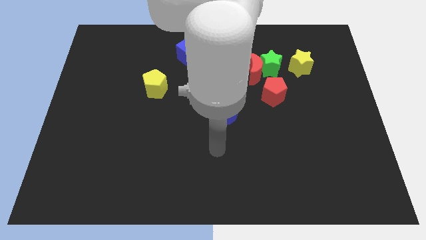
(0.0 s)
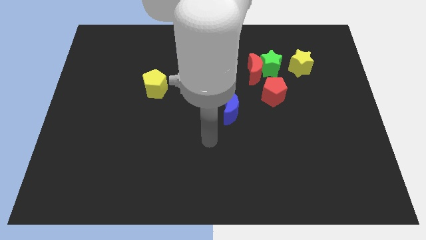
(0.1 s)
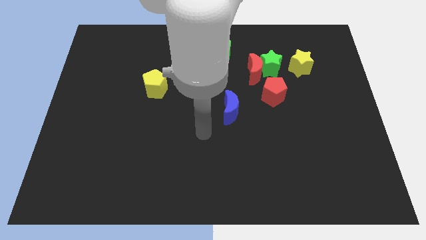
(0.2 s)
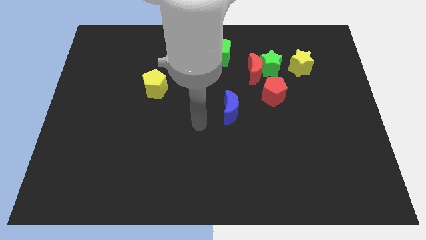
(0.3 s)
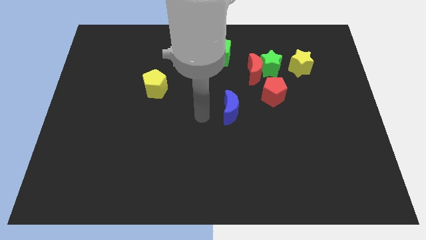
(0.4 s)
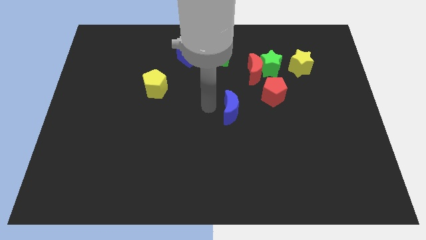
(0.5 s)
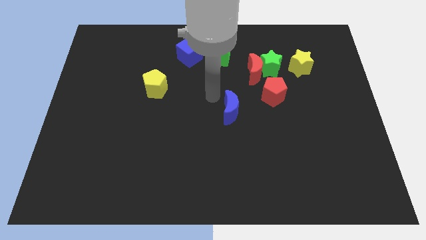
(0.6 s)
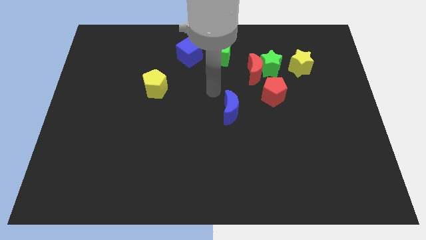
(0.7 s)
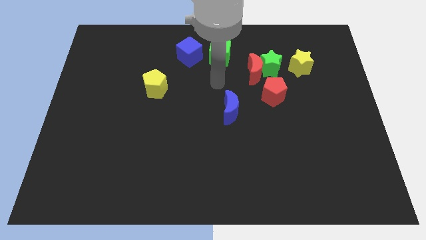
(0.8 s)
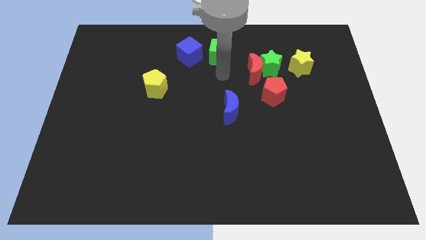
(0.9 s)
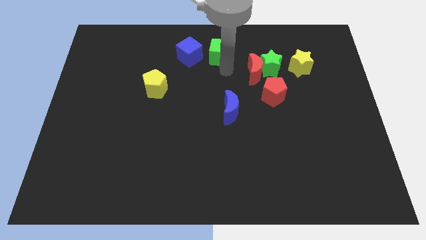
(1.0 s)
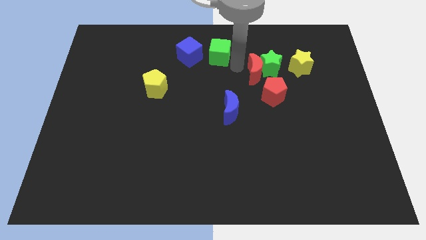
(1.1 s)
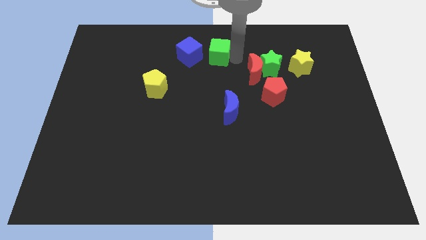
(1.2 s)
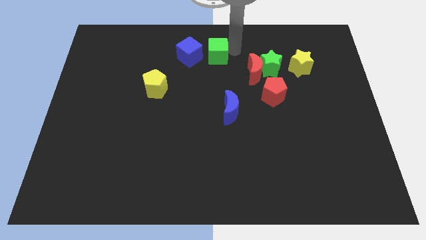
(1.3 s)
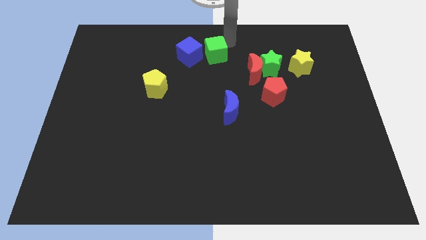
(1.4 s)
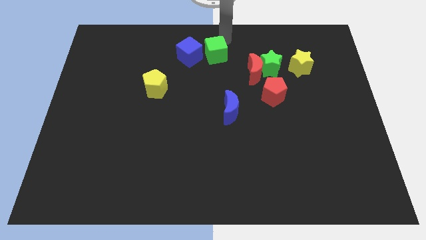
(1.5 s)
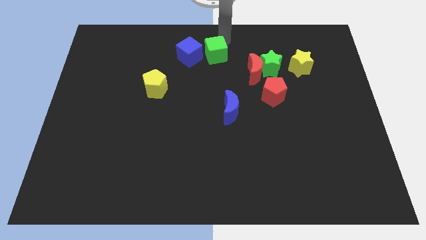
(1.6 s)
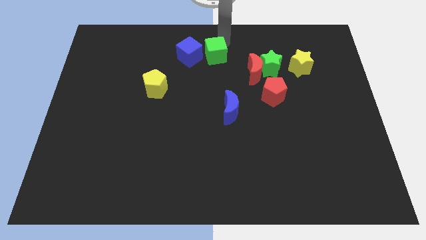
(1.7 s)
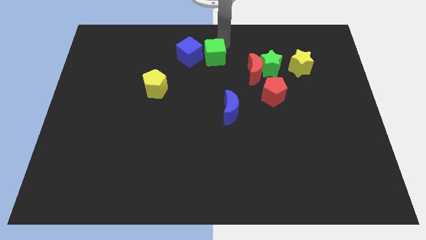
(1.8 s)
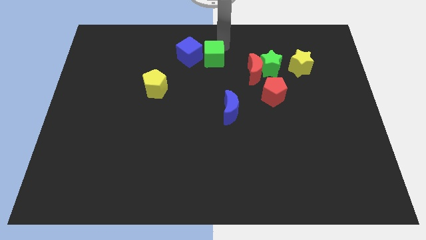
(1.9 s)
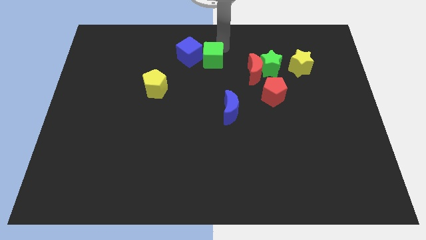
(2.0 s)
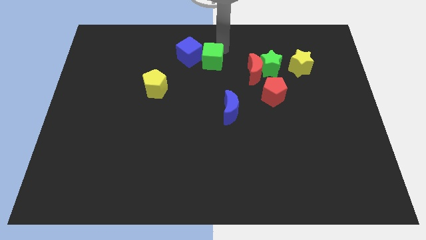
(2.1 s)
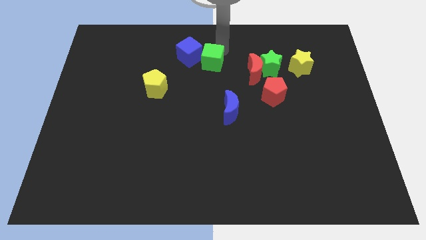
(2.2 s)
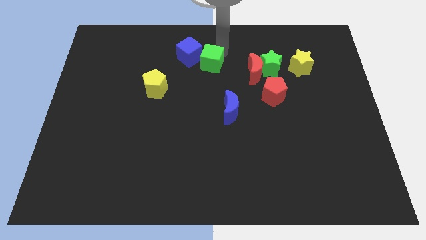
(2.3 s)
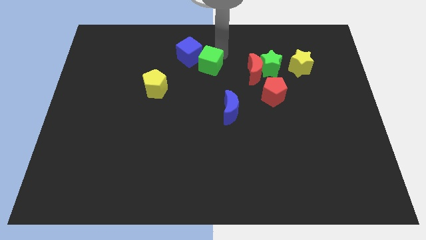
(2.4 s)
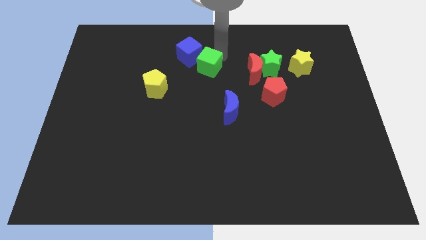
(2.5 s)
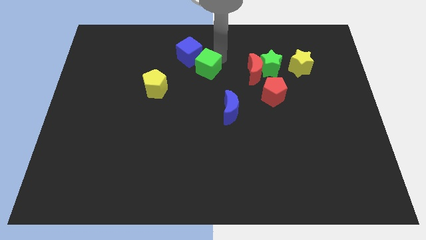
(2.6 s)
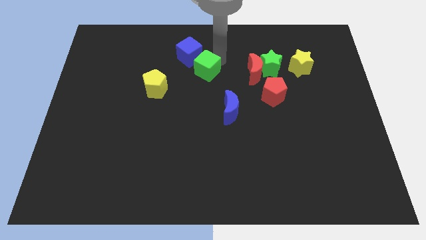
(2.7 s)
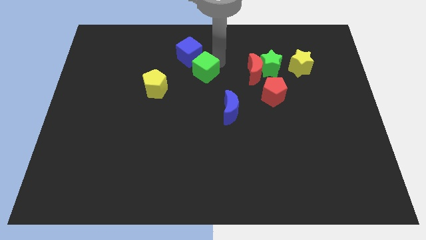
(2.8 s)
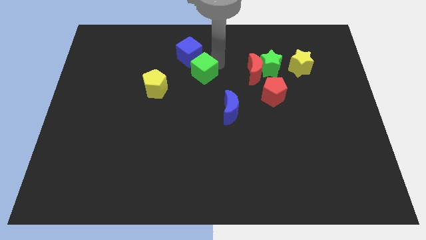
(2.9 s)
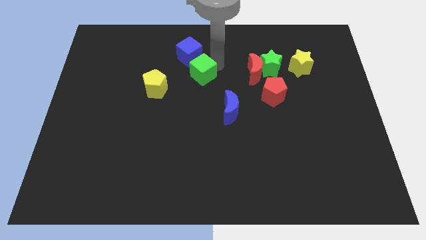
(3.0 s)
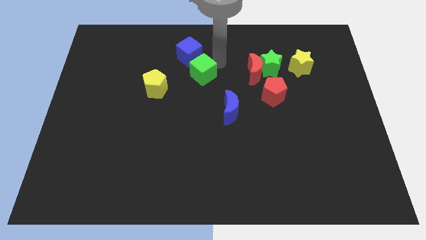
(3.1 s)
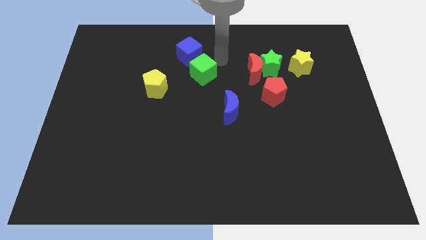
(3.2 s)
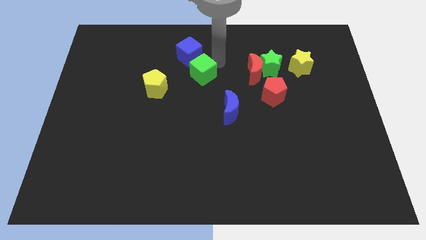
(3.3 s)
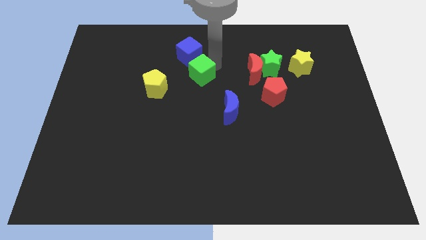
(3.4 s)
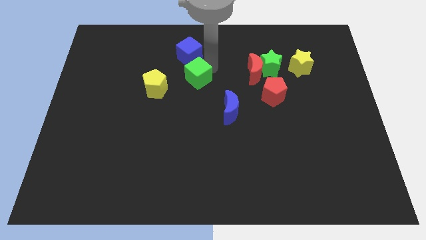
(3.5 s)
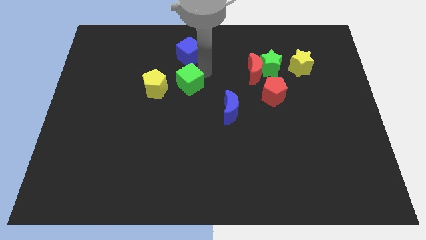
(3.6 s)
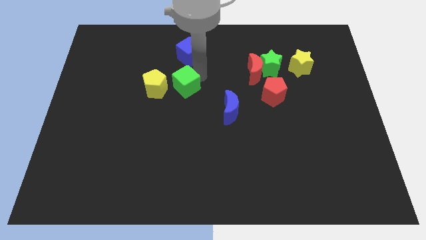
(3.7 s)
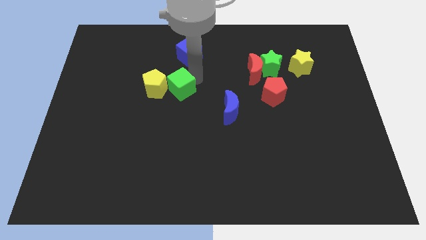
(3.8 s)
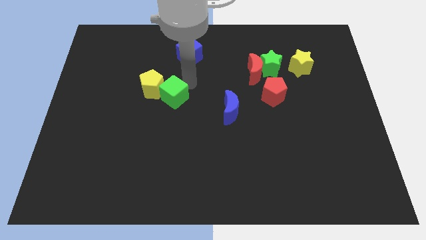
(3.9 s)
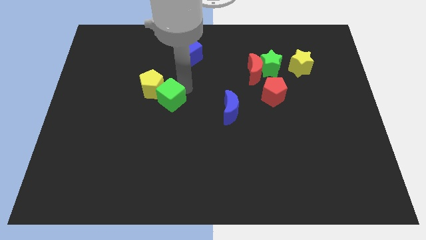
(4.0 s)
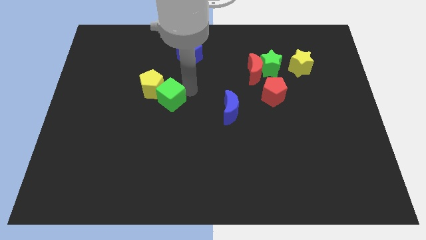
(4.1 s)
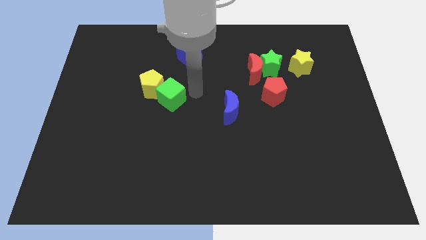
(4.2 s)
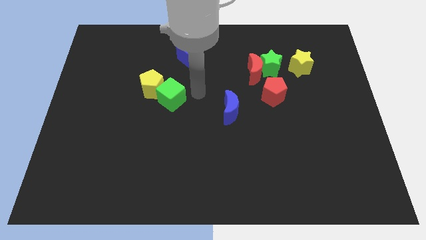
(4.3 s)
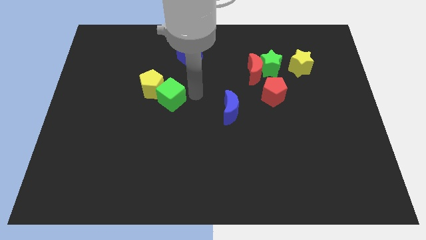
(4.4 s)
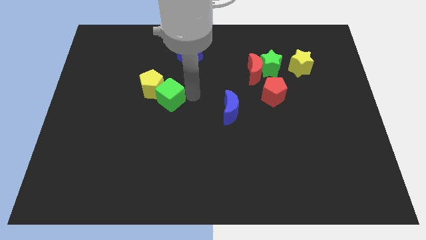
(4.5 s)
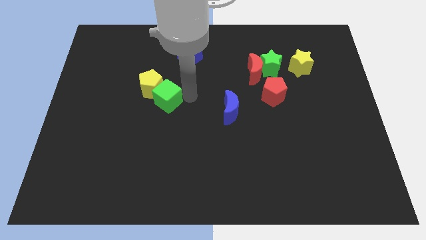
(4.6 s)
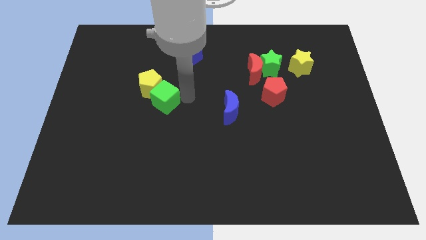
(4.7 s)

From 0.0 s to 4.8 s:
slide the green cube downwards and to the left diagonally

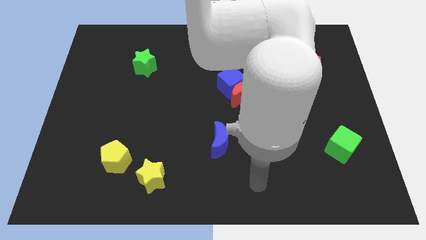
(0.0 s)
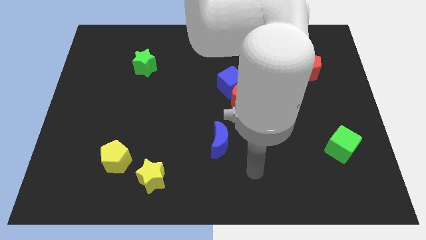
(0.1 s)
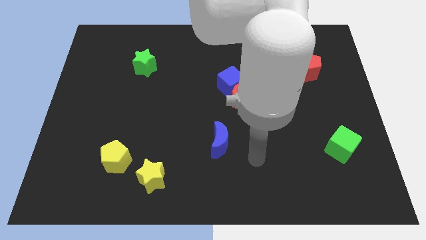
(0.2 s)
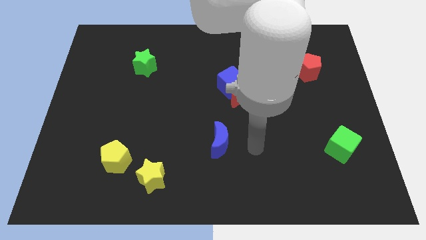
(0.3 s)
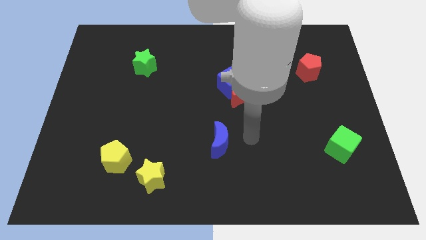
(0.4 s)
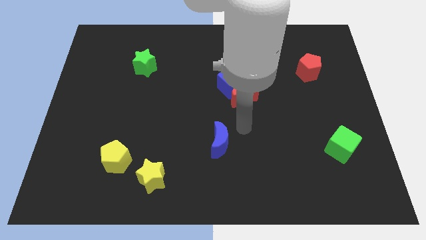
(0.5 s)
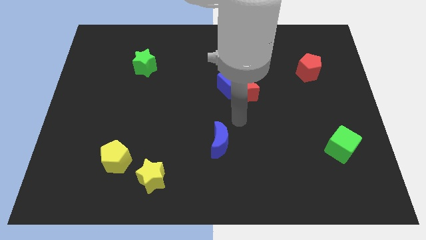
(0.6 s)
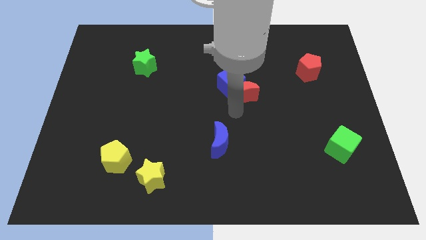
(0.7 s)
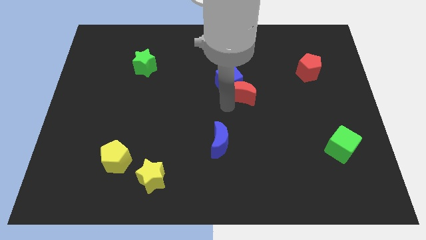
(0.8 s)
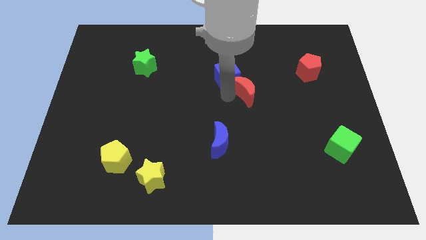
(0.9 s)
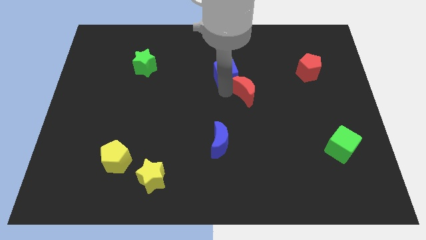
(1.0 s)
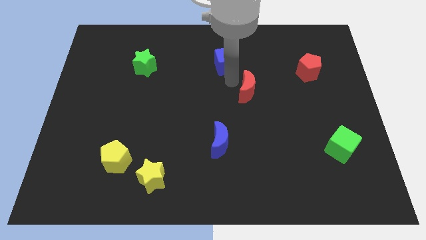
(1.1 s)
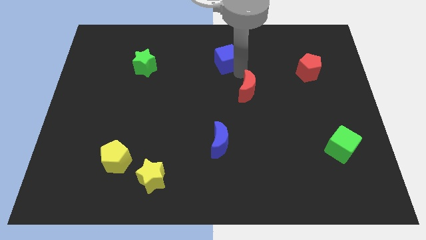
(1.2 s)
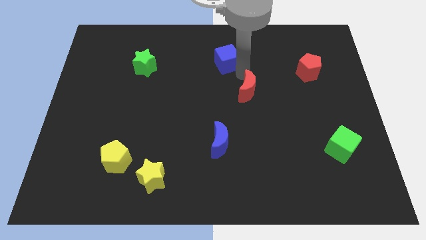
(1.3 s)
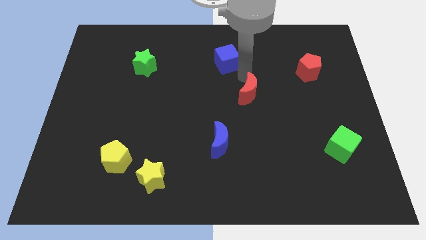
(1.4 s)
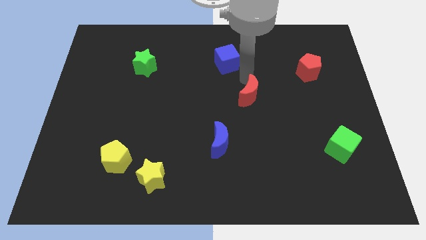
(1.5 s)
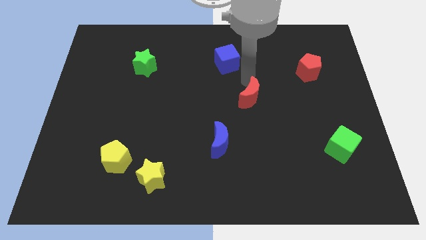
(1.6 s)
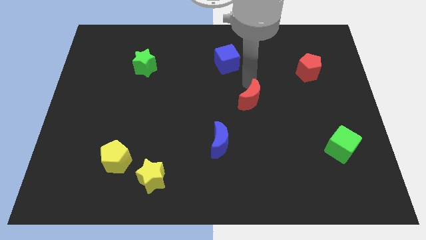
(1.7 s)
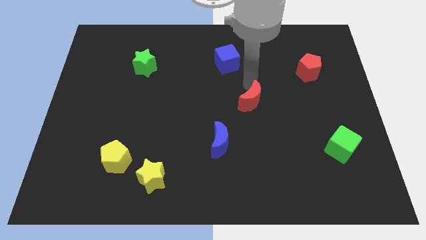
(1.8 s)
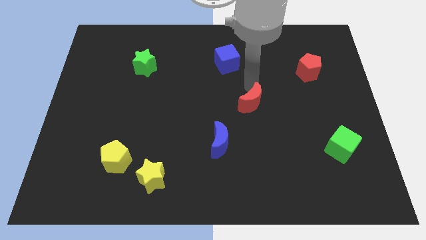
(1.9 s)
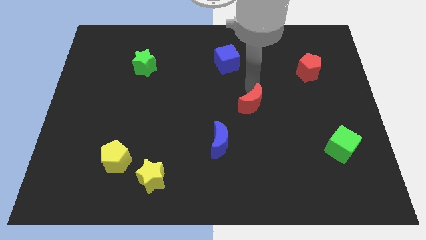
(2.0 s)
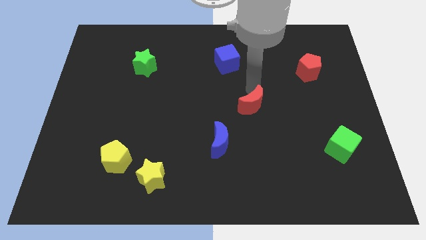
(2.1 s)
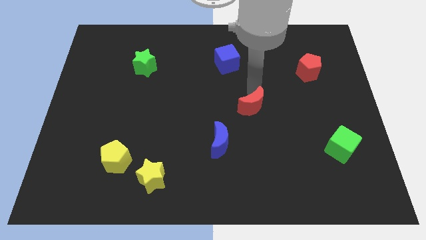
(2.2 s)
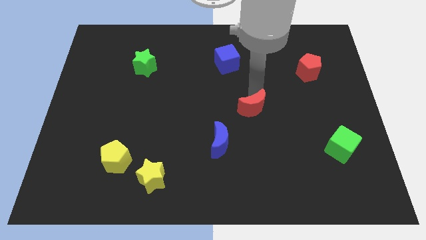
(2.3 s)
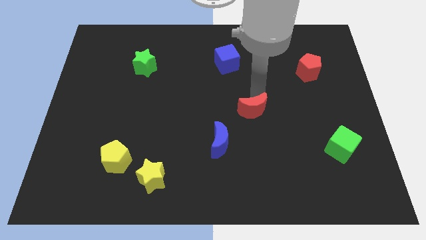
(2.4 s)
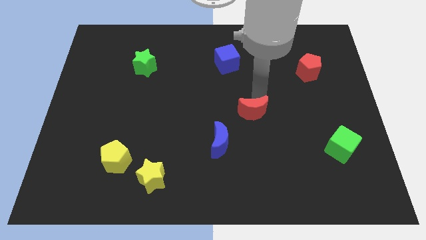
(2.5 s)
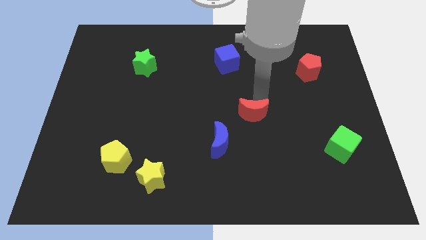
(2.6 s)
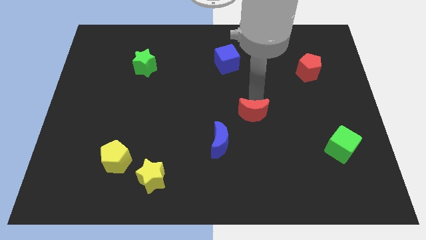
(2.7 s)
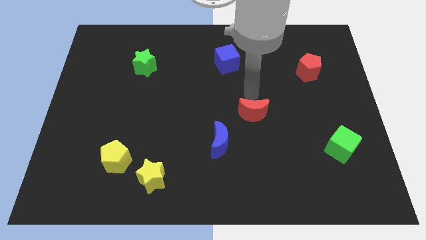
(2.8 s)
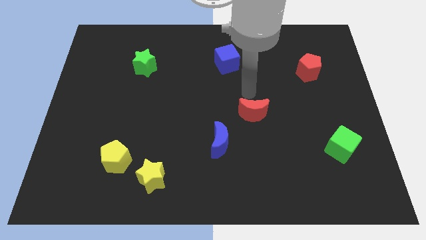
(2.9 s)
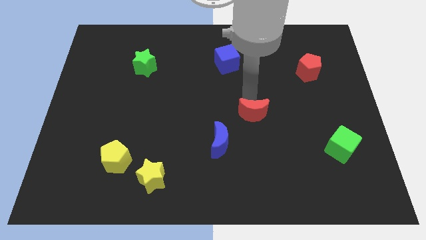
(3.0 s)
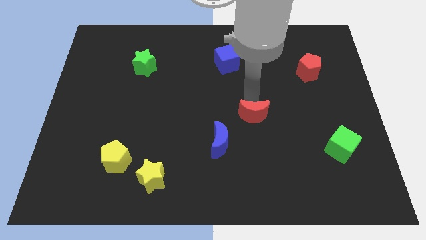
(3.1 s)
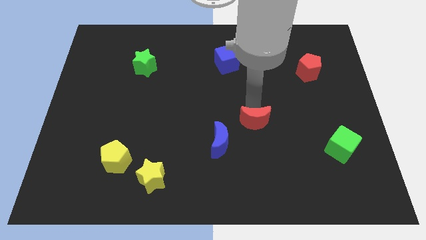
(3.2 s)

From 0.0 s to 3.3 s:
slide the red moon down slightly

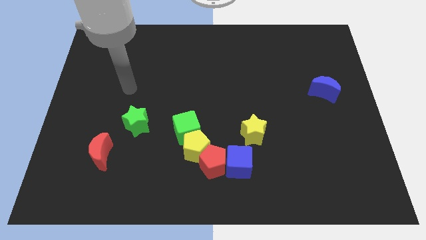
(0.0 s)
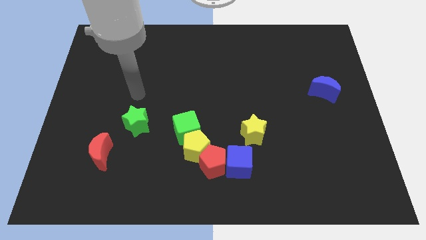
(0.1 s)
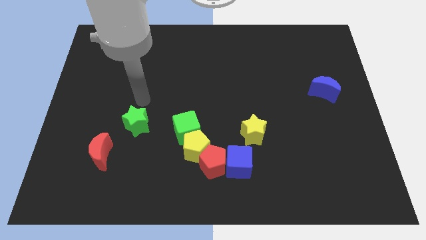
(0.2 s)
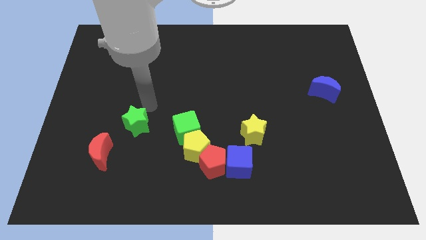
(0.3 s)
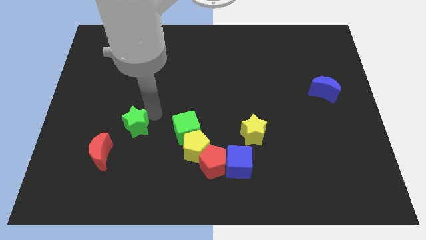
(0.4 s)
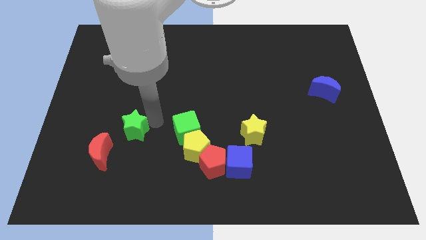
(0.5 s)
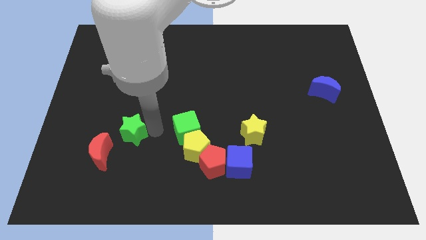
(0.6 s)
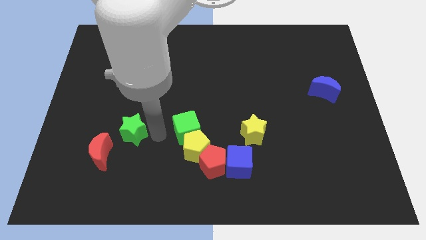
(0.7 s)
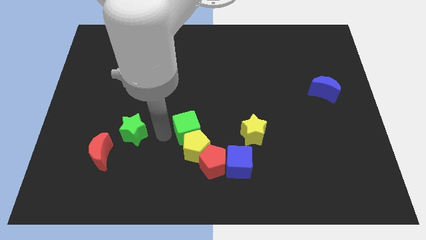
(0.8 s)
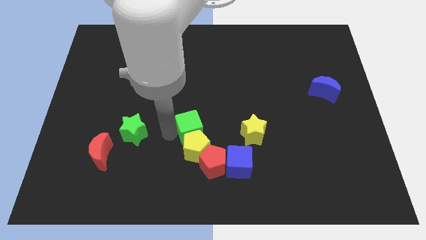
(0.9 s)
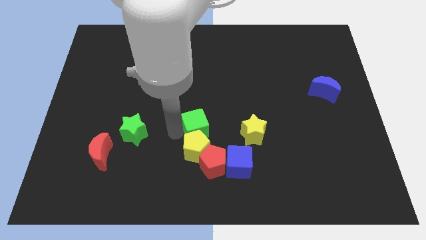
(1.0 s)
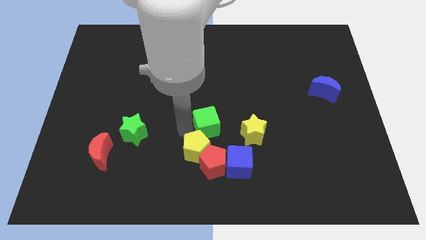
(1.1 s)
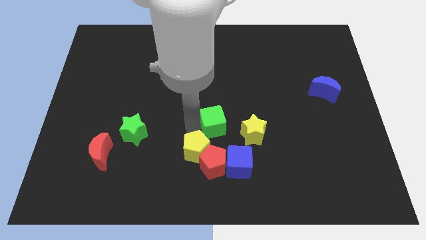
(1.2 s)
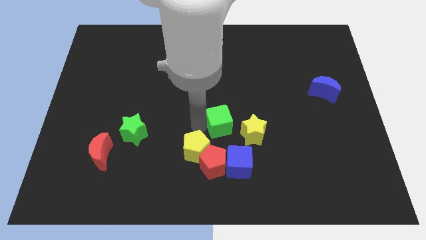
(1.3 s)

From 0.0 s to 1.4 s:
slightly move the green cube right
